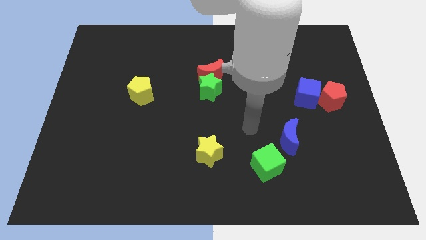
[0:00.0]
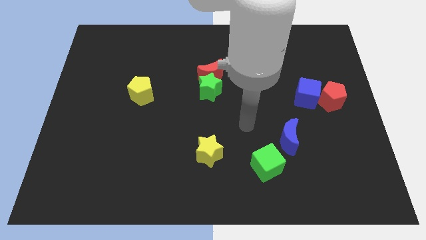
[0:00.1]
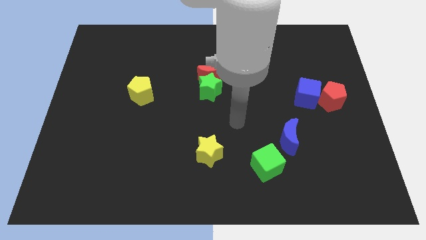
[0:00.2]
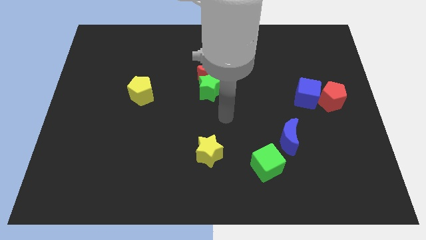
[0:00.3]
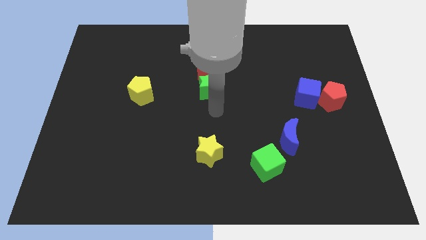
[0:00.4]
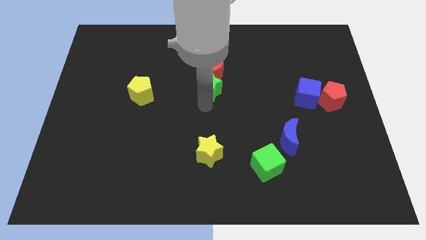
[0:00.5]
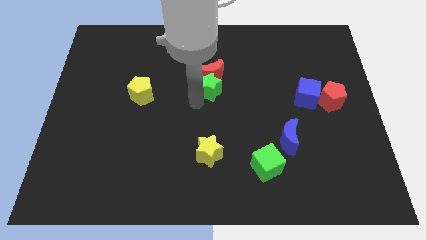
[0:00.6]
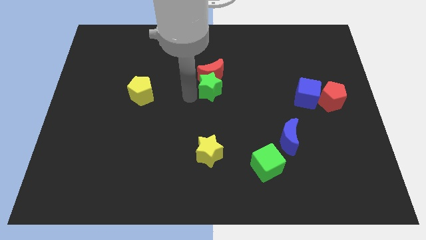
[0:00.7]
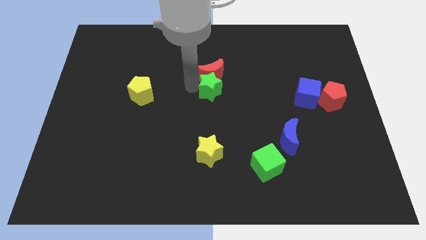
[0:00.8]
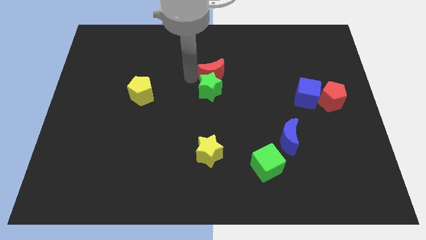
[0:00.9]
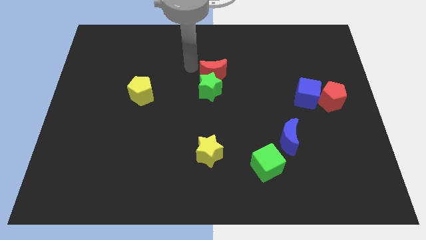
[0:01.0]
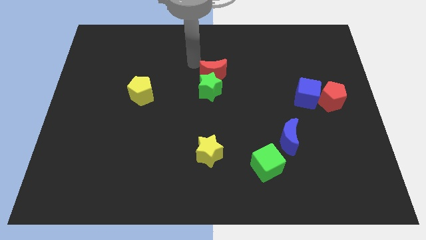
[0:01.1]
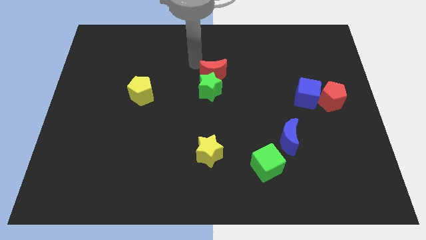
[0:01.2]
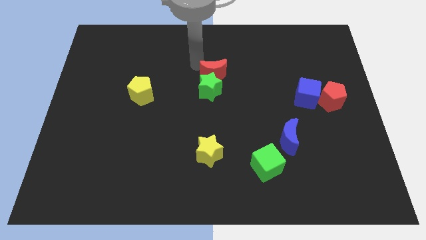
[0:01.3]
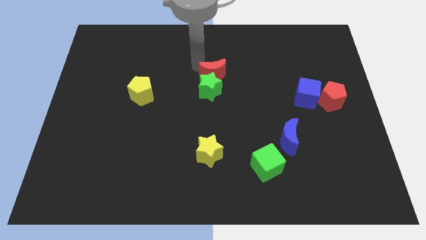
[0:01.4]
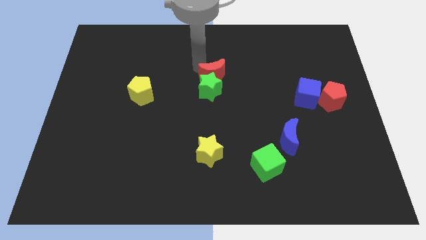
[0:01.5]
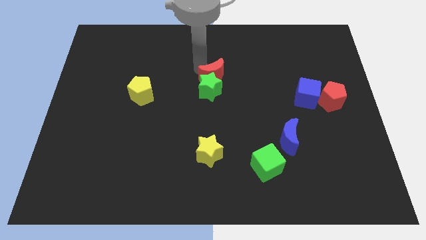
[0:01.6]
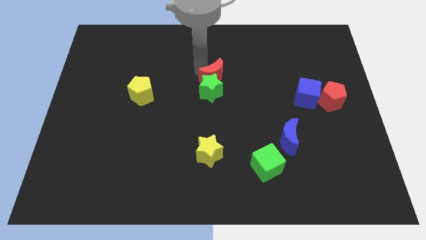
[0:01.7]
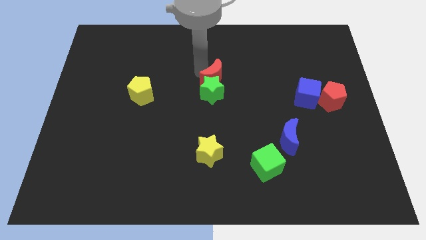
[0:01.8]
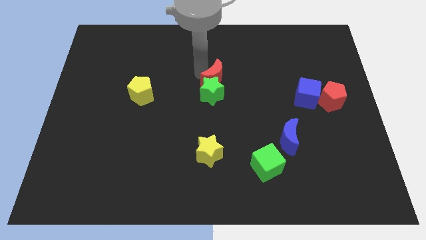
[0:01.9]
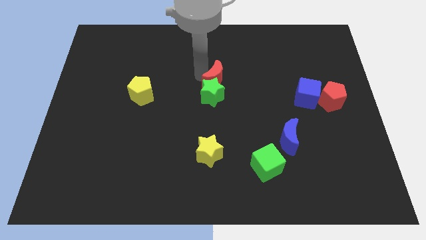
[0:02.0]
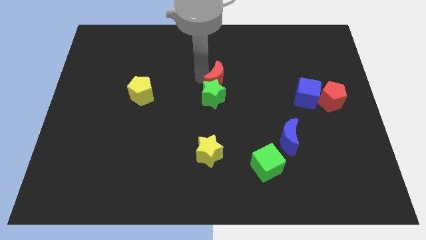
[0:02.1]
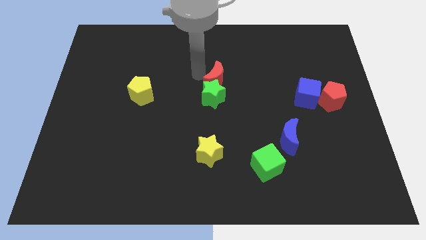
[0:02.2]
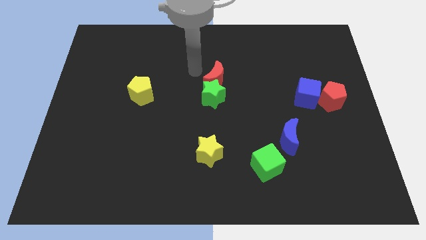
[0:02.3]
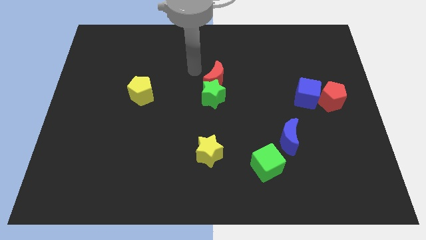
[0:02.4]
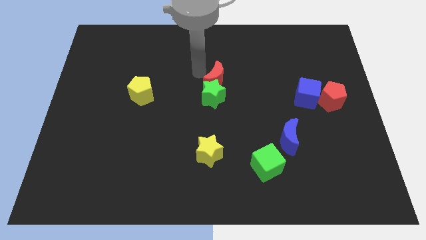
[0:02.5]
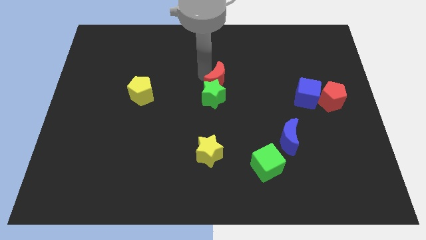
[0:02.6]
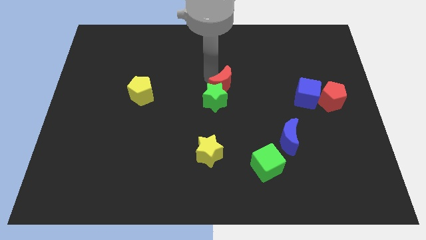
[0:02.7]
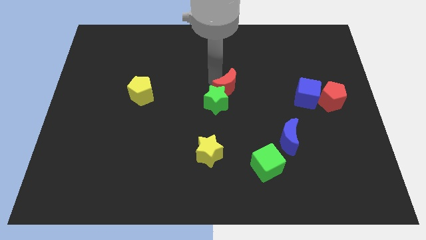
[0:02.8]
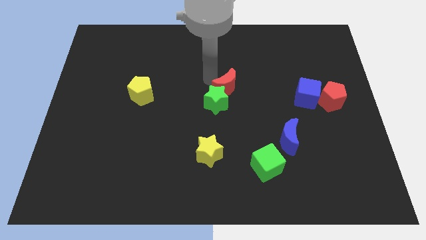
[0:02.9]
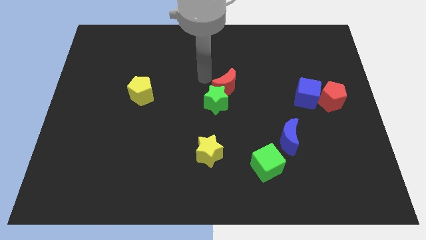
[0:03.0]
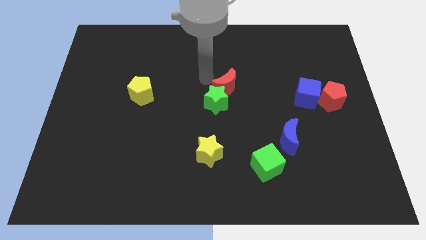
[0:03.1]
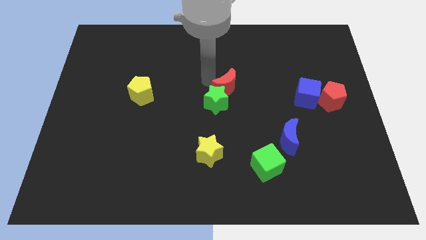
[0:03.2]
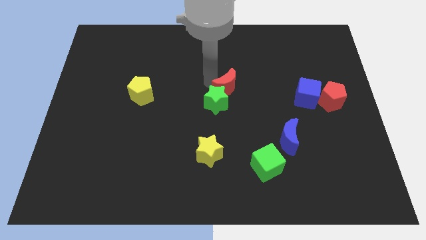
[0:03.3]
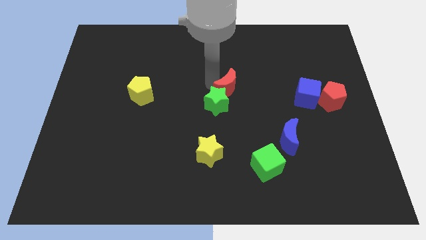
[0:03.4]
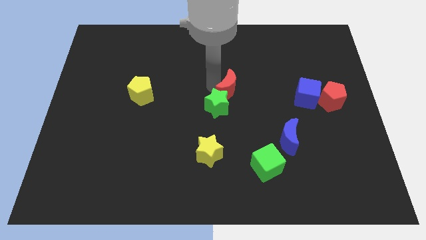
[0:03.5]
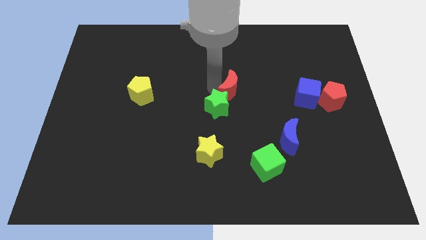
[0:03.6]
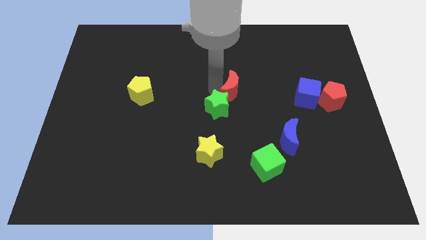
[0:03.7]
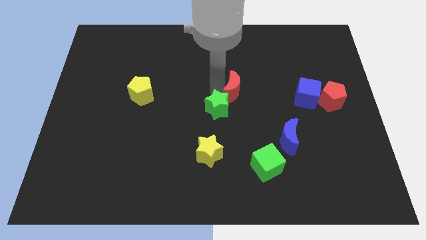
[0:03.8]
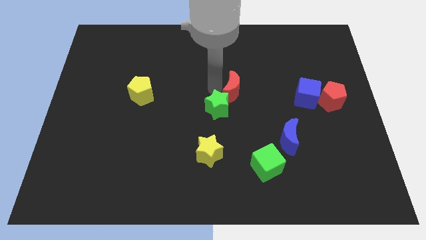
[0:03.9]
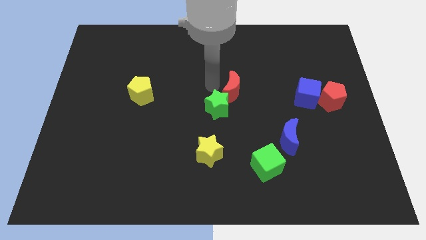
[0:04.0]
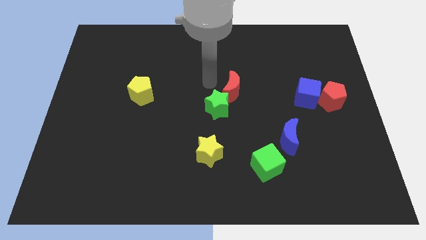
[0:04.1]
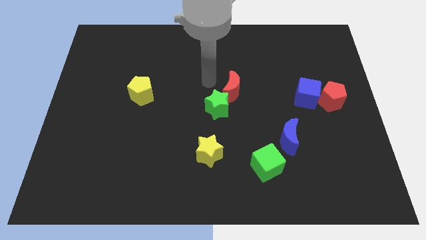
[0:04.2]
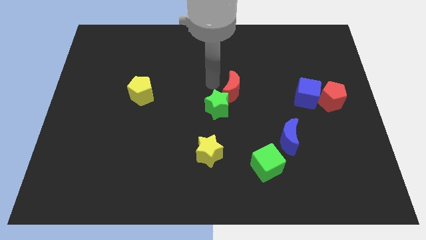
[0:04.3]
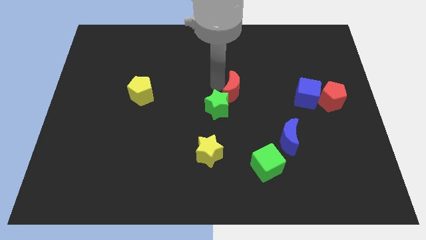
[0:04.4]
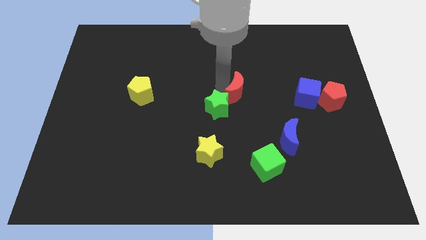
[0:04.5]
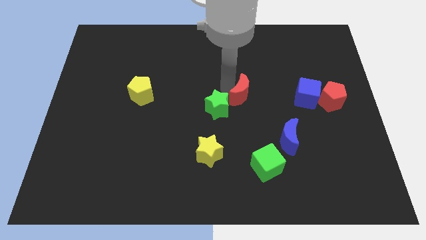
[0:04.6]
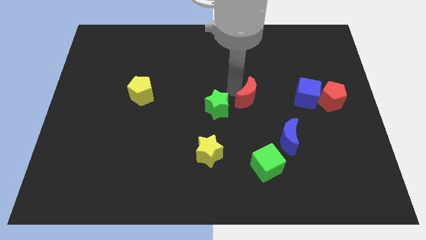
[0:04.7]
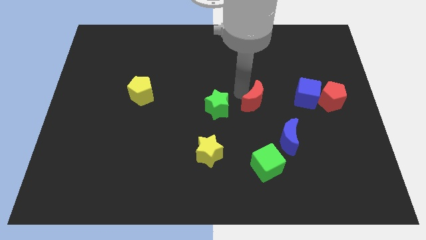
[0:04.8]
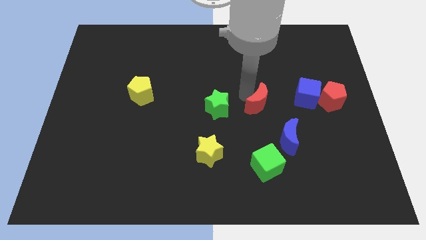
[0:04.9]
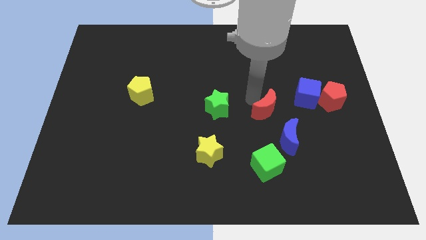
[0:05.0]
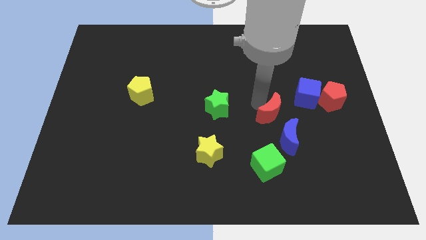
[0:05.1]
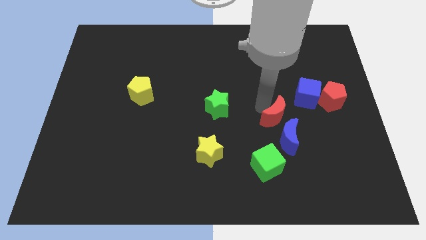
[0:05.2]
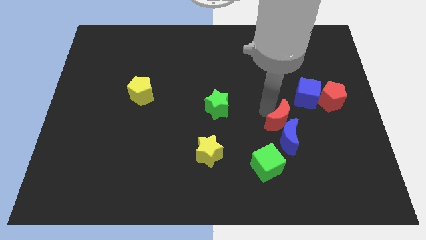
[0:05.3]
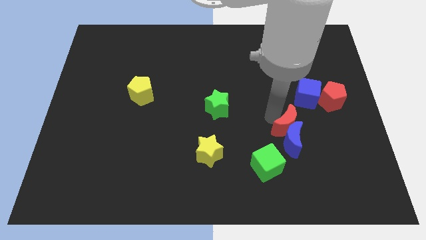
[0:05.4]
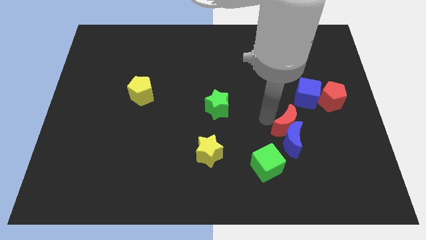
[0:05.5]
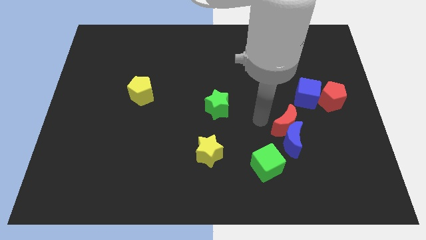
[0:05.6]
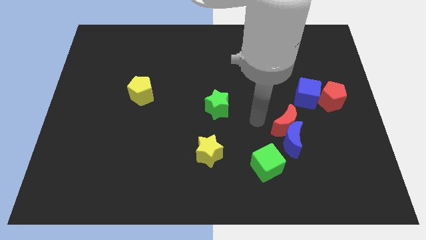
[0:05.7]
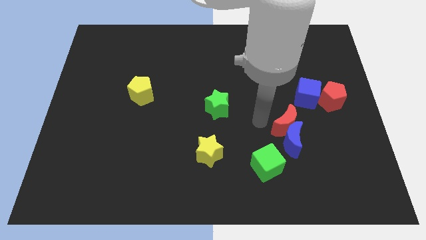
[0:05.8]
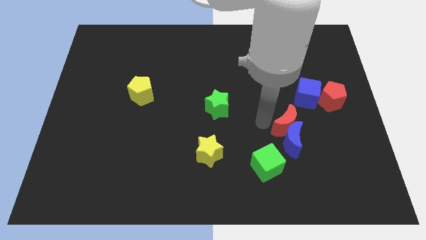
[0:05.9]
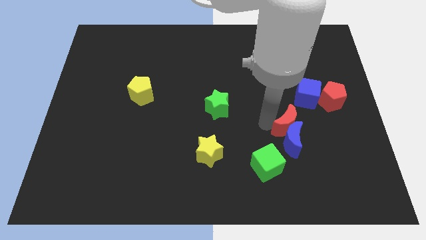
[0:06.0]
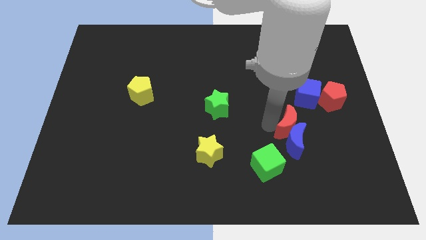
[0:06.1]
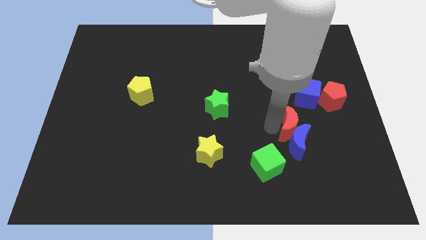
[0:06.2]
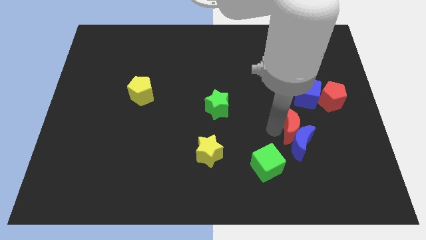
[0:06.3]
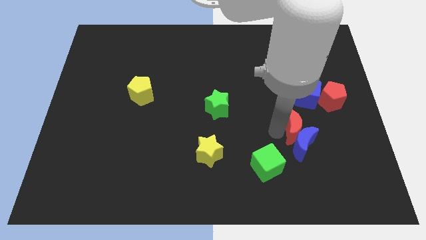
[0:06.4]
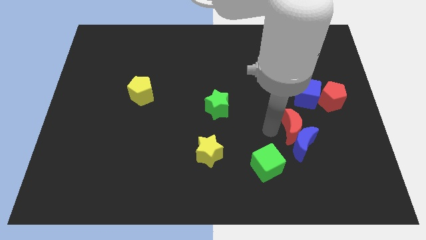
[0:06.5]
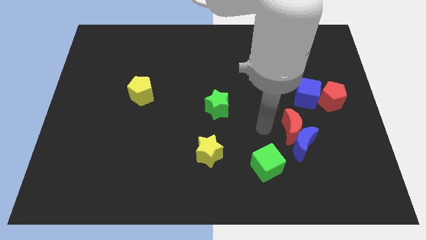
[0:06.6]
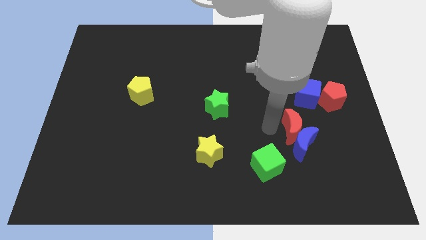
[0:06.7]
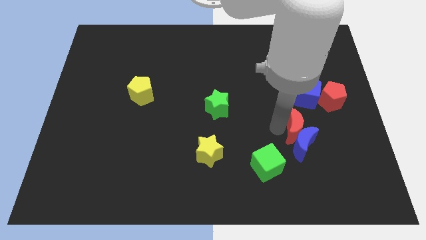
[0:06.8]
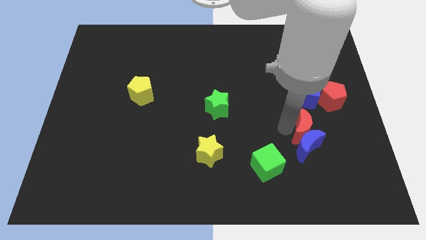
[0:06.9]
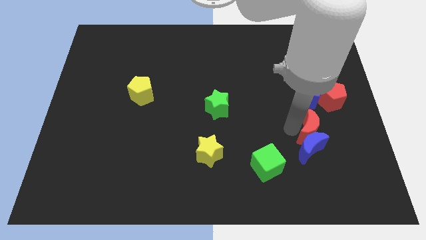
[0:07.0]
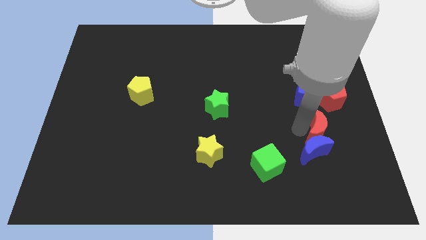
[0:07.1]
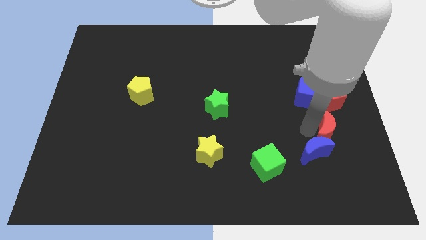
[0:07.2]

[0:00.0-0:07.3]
push the red moon to the bottom side of the red pentagon
